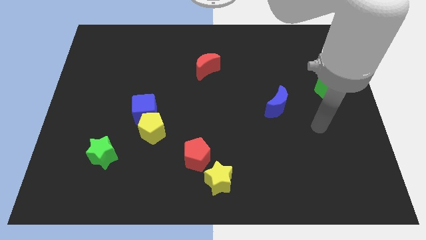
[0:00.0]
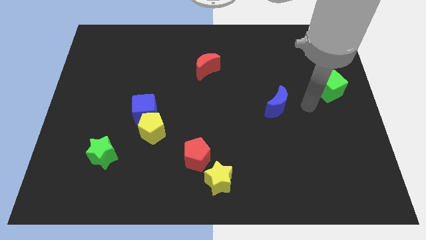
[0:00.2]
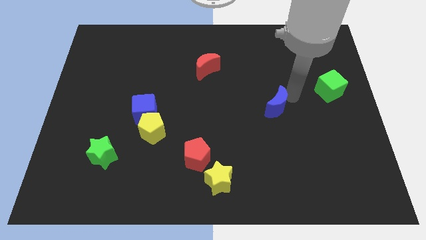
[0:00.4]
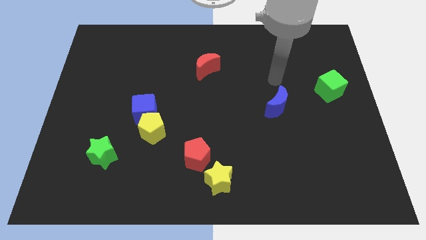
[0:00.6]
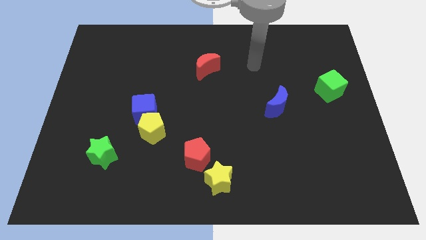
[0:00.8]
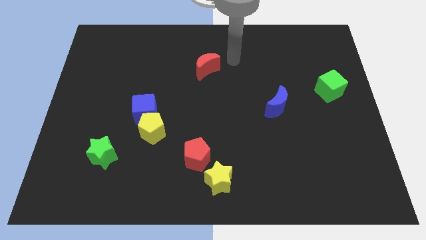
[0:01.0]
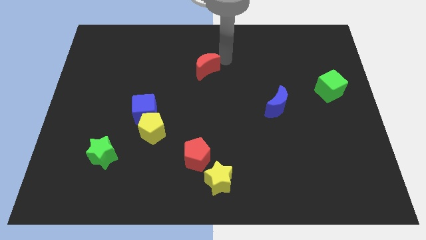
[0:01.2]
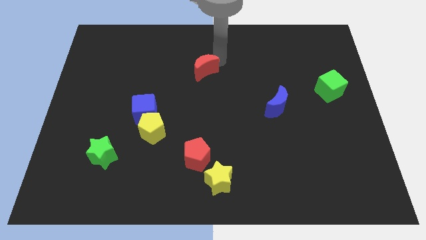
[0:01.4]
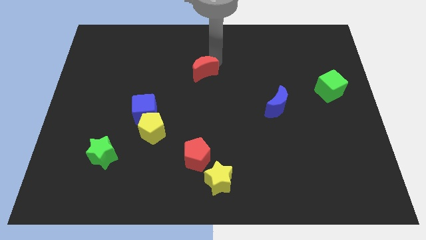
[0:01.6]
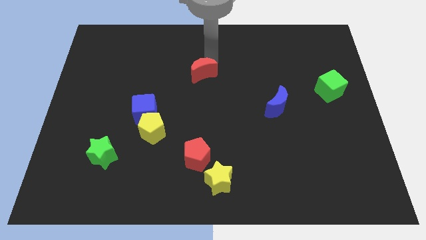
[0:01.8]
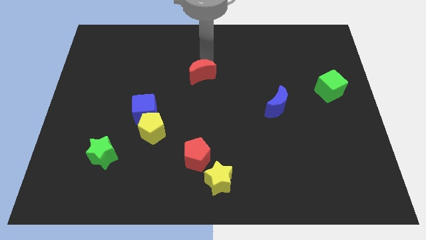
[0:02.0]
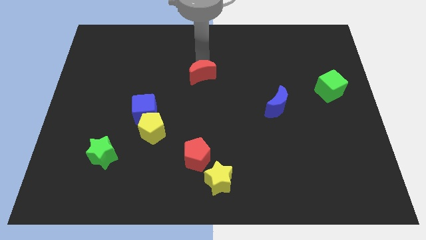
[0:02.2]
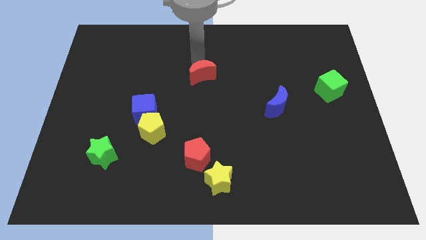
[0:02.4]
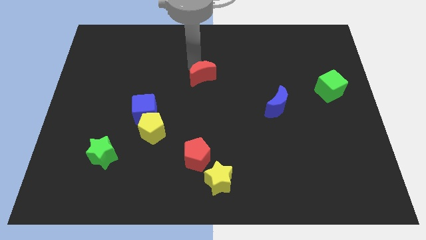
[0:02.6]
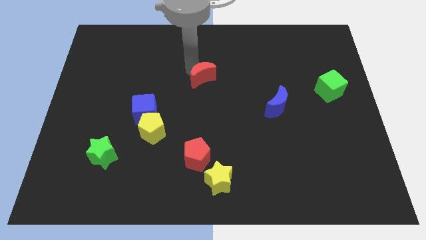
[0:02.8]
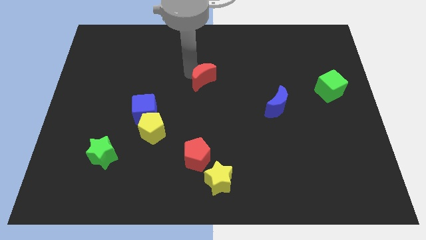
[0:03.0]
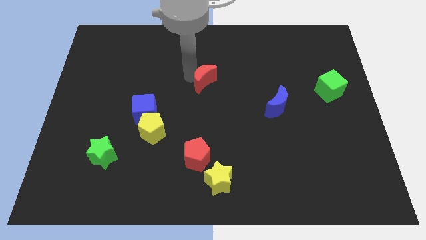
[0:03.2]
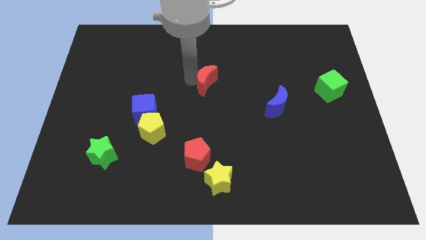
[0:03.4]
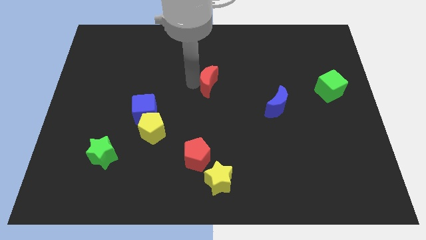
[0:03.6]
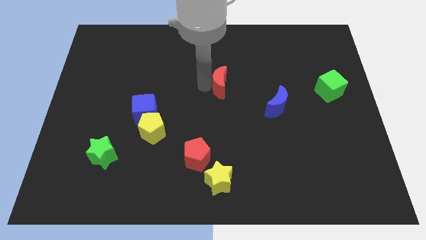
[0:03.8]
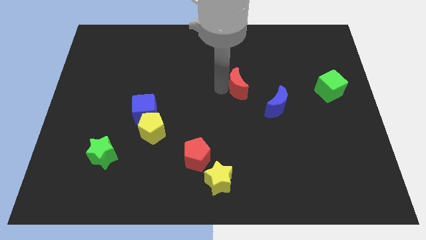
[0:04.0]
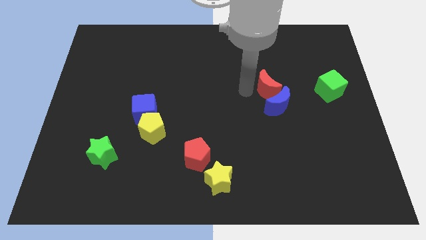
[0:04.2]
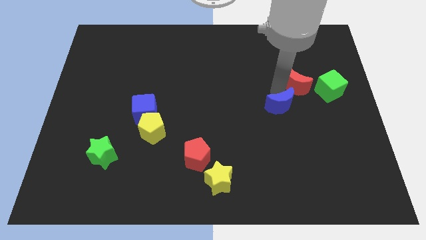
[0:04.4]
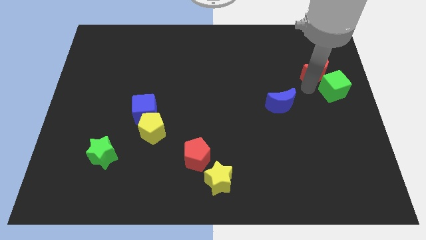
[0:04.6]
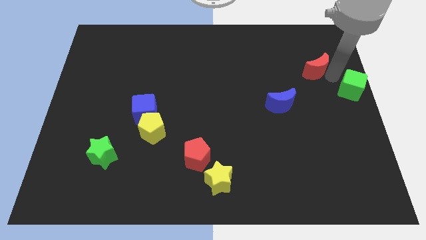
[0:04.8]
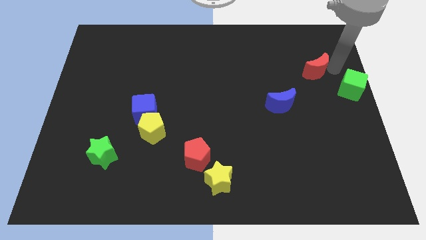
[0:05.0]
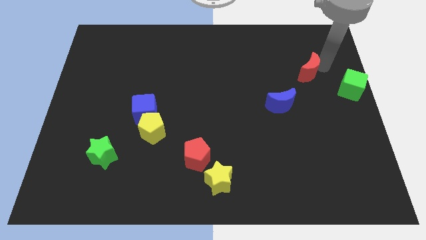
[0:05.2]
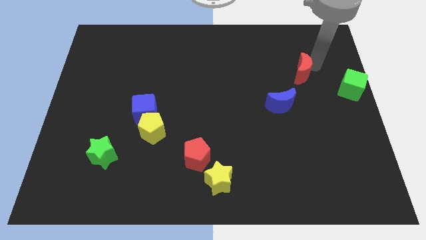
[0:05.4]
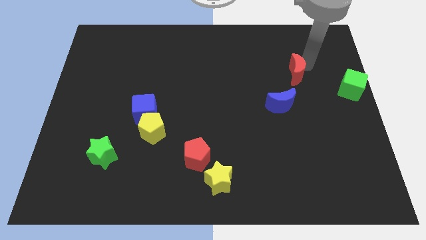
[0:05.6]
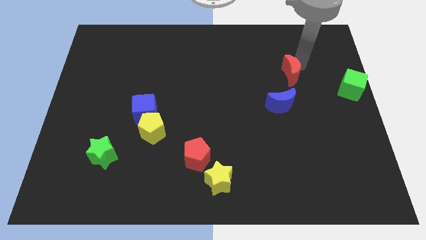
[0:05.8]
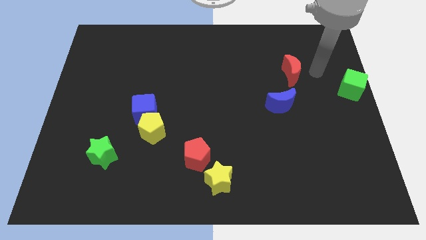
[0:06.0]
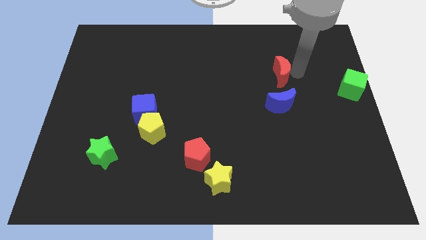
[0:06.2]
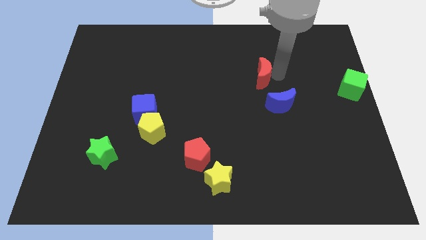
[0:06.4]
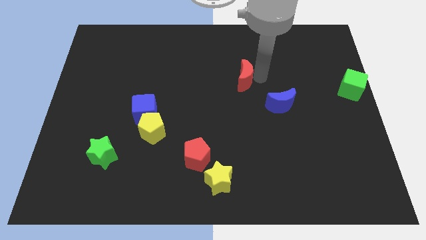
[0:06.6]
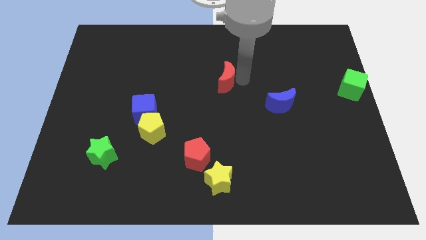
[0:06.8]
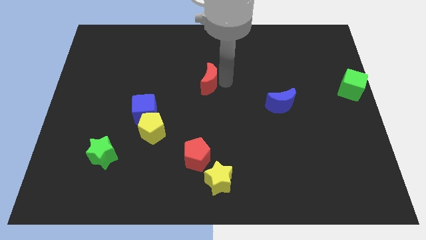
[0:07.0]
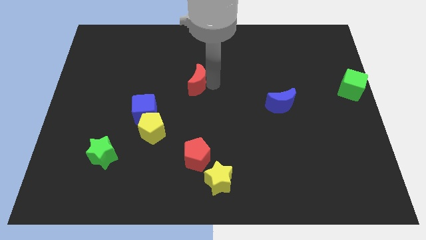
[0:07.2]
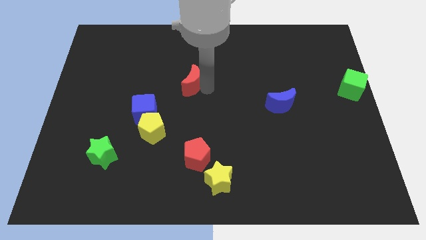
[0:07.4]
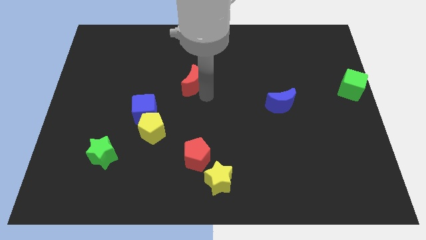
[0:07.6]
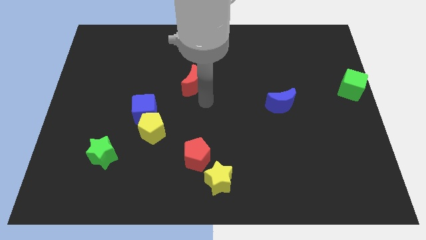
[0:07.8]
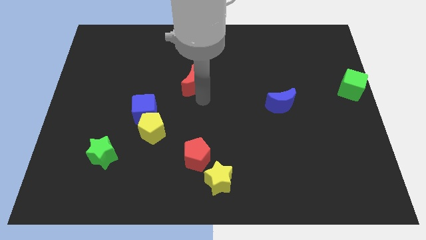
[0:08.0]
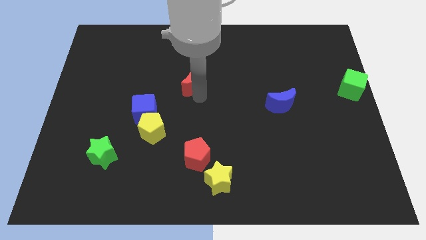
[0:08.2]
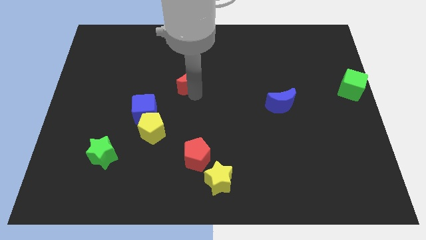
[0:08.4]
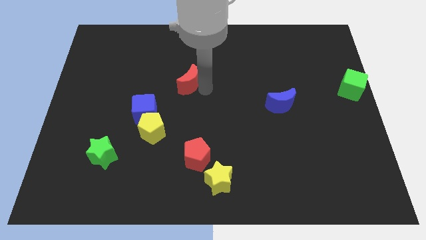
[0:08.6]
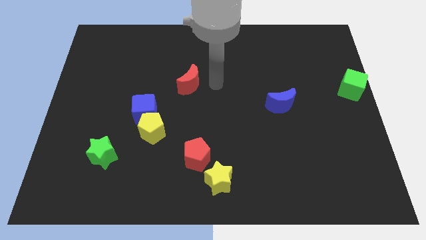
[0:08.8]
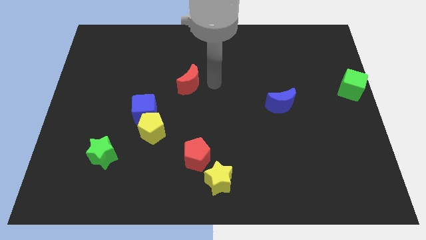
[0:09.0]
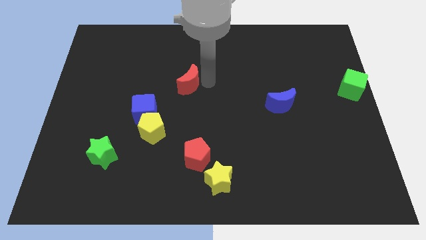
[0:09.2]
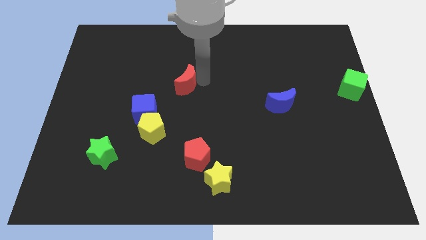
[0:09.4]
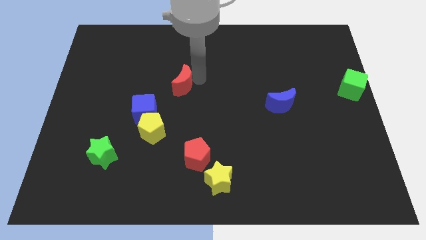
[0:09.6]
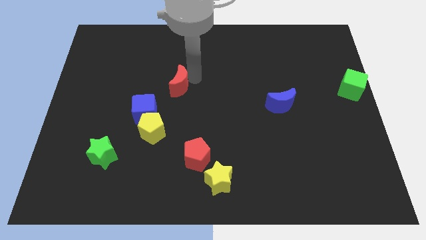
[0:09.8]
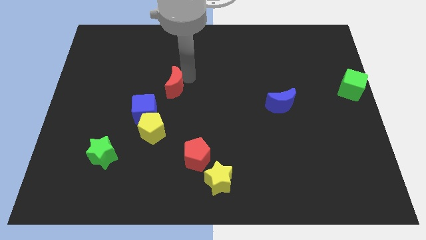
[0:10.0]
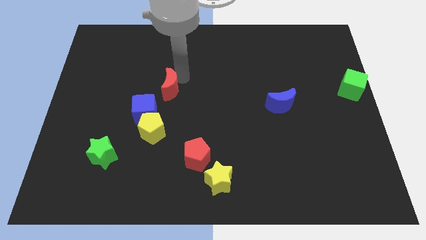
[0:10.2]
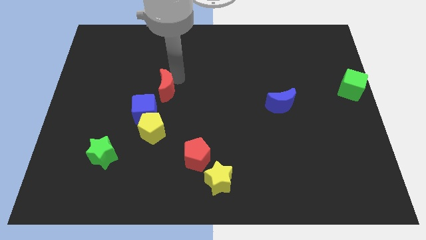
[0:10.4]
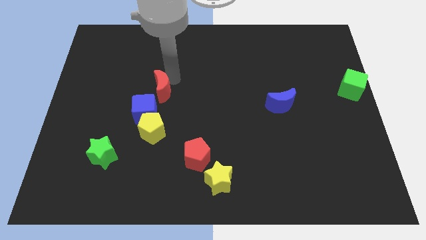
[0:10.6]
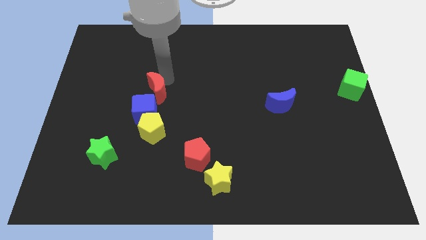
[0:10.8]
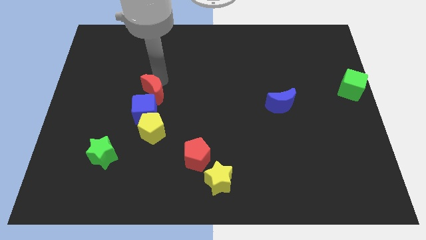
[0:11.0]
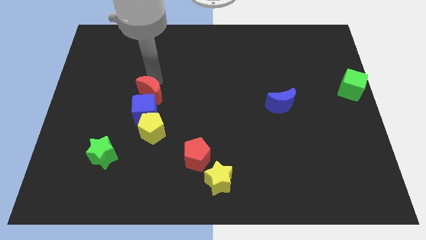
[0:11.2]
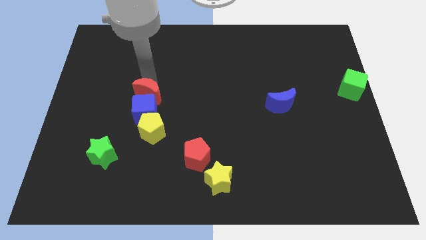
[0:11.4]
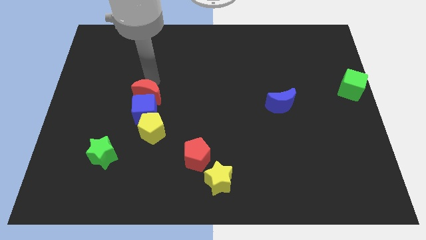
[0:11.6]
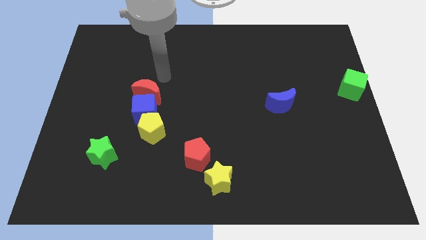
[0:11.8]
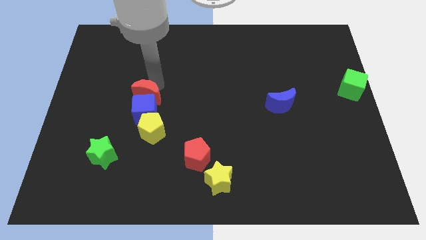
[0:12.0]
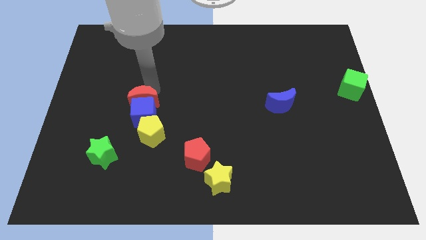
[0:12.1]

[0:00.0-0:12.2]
put the red moon diagonally up and to the left of the yellow pentagon

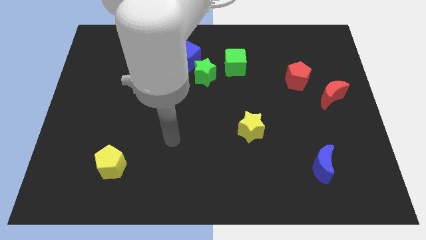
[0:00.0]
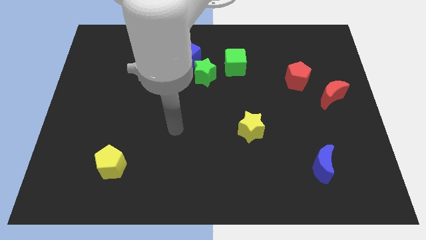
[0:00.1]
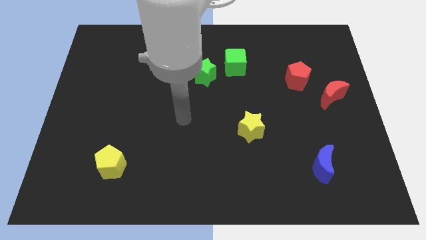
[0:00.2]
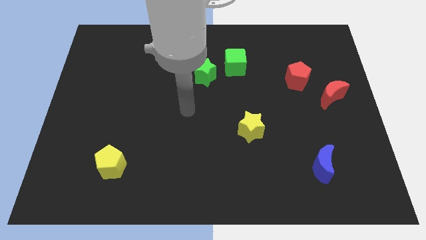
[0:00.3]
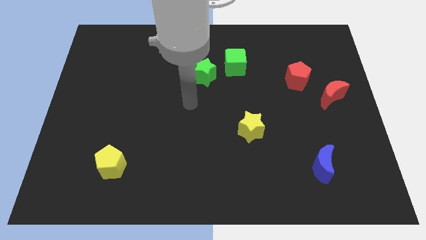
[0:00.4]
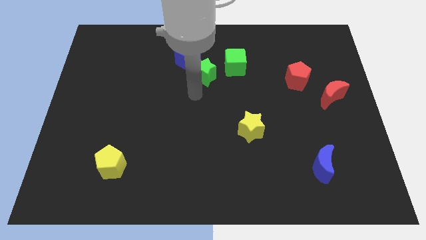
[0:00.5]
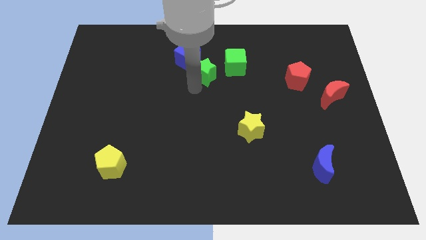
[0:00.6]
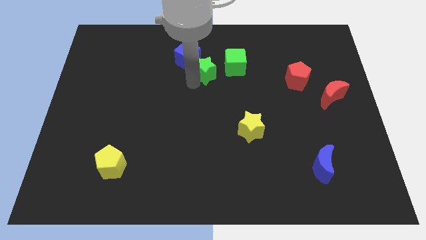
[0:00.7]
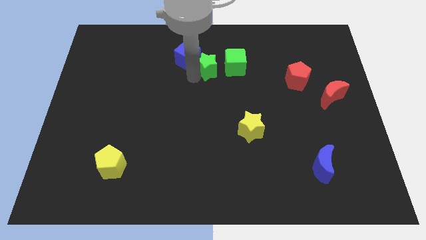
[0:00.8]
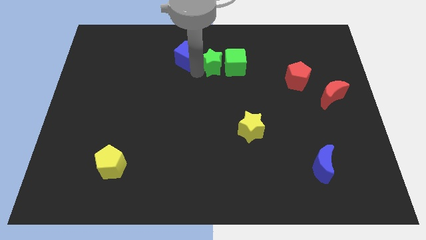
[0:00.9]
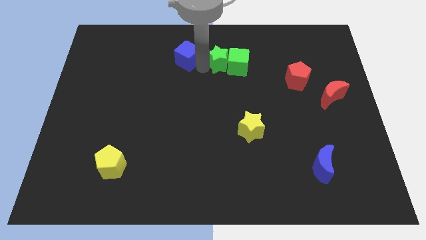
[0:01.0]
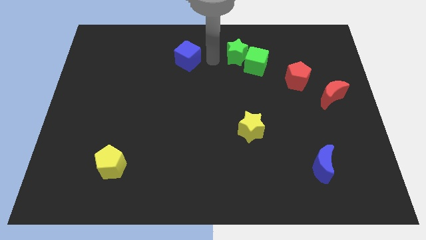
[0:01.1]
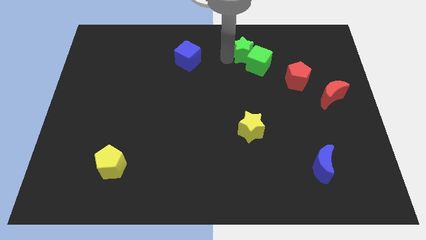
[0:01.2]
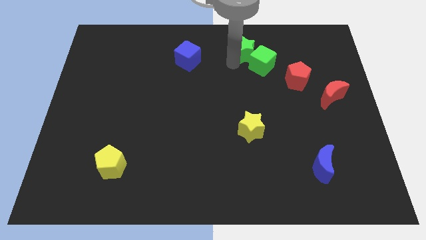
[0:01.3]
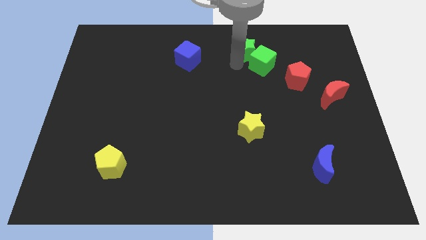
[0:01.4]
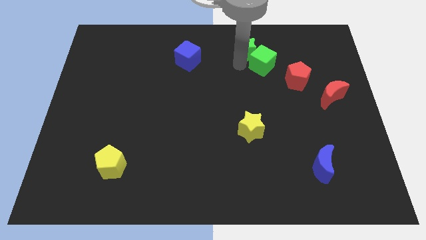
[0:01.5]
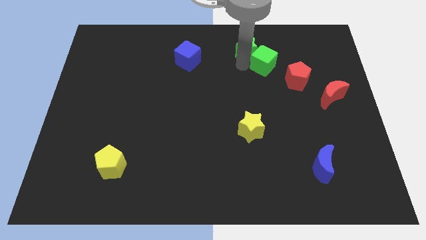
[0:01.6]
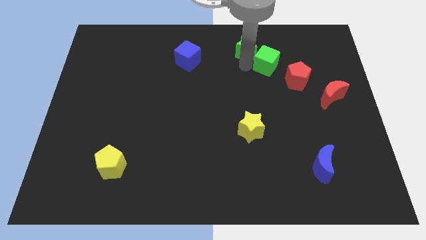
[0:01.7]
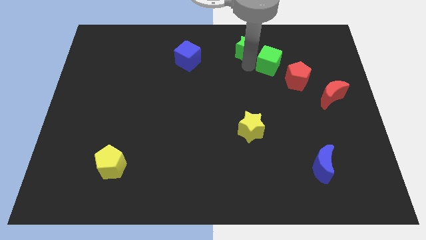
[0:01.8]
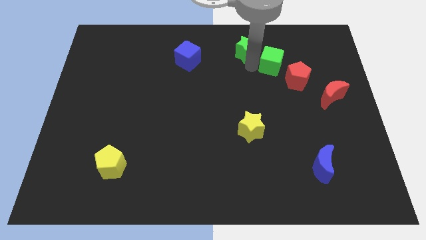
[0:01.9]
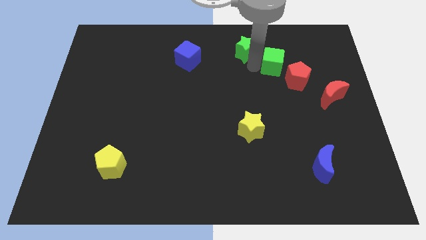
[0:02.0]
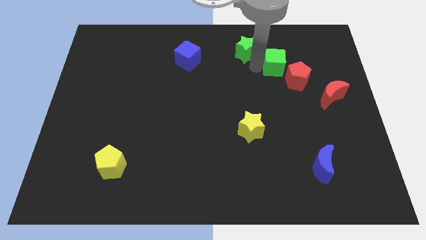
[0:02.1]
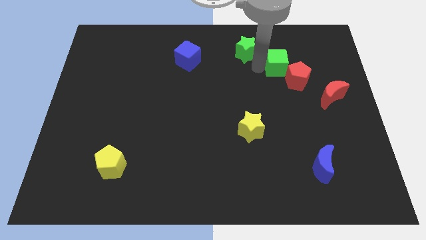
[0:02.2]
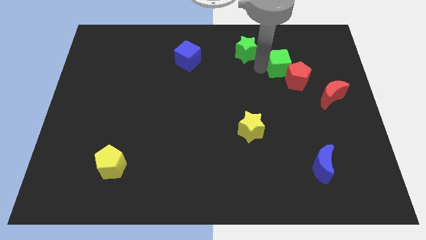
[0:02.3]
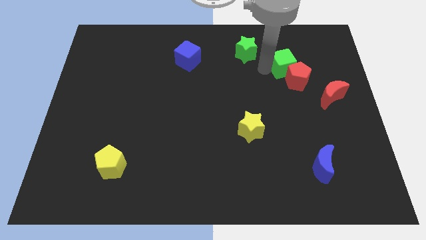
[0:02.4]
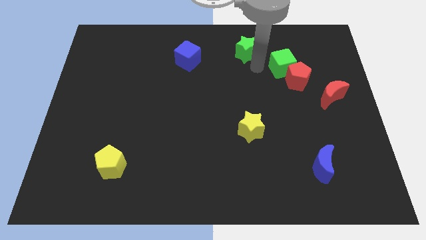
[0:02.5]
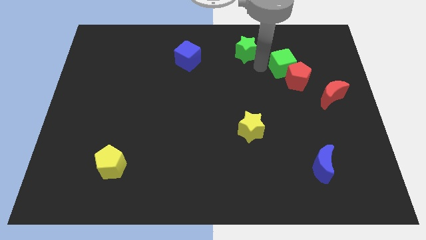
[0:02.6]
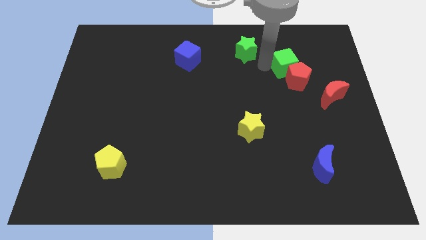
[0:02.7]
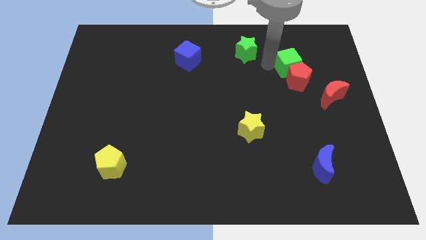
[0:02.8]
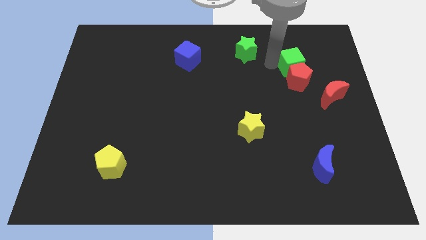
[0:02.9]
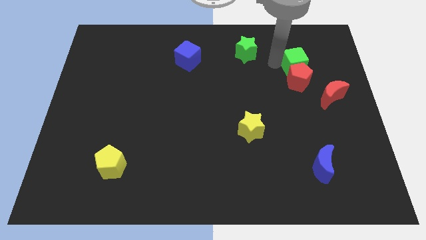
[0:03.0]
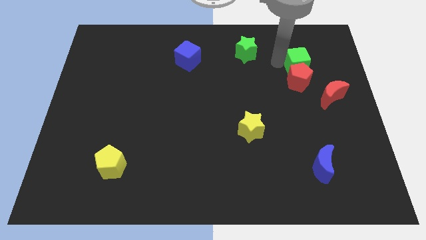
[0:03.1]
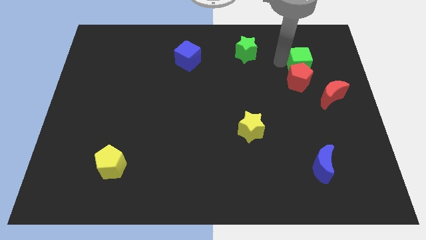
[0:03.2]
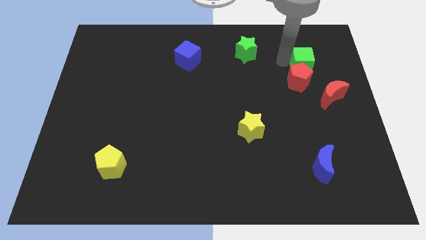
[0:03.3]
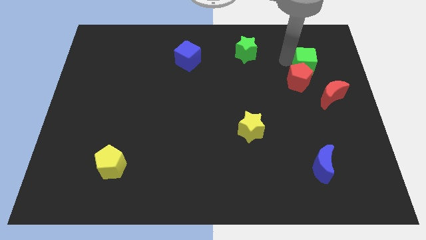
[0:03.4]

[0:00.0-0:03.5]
move the green cube to the top of the red moon
